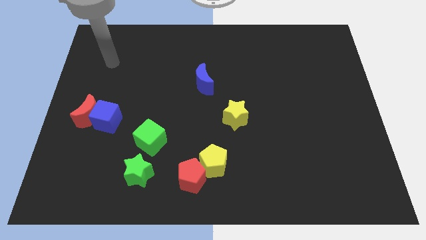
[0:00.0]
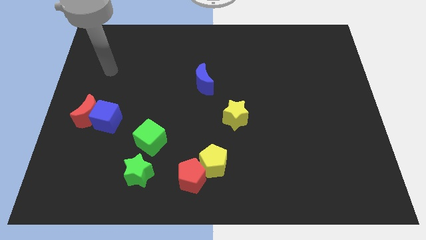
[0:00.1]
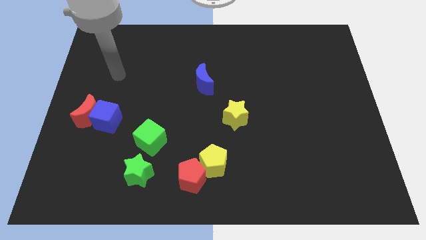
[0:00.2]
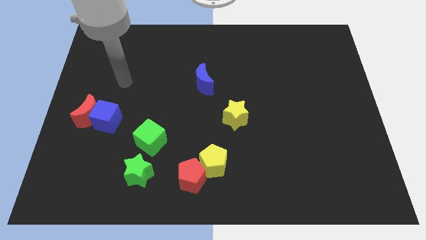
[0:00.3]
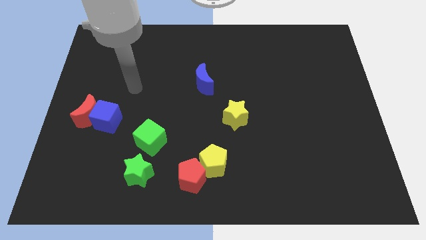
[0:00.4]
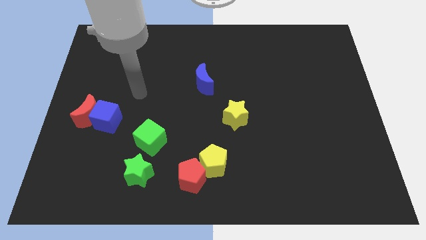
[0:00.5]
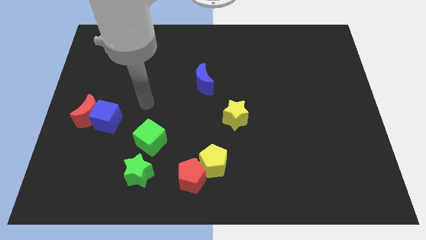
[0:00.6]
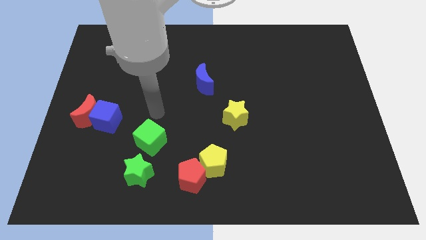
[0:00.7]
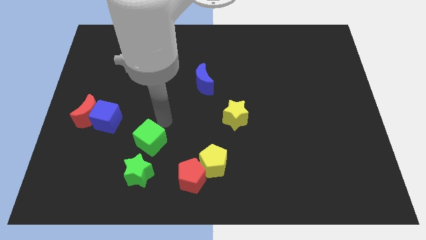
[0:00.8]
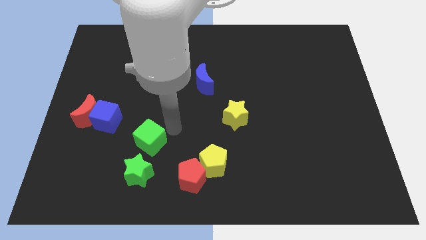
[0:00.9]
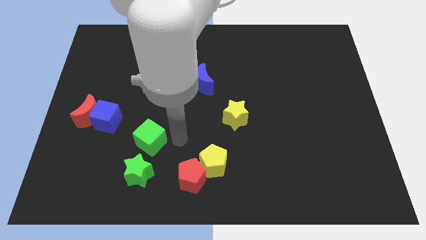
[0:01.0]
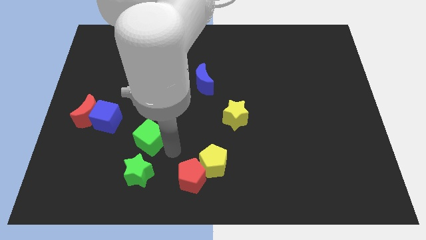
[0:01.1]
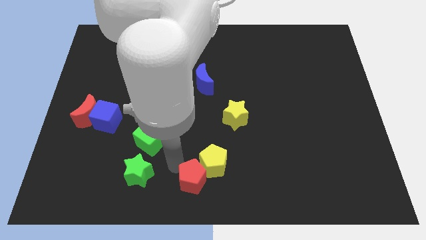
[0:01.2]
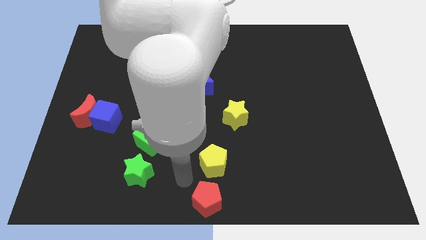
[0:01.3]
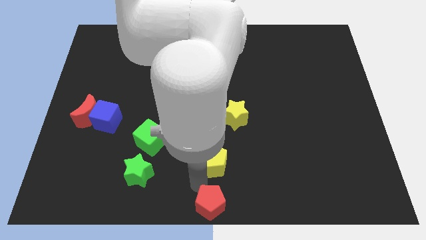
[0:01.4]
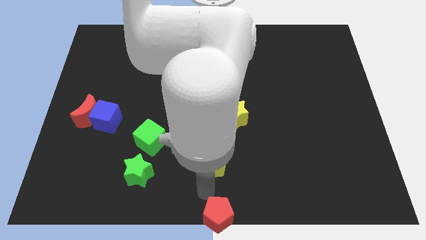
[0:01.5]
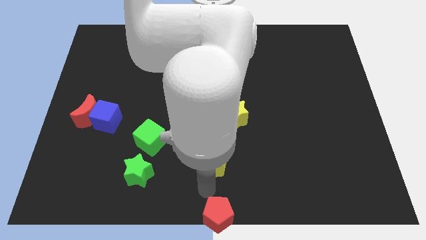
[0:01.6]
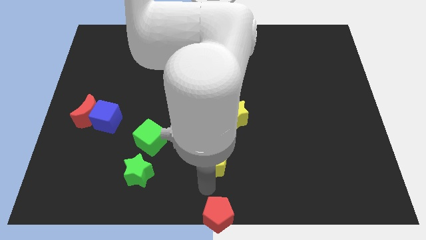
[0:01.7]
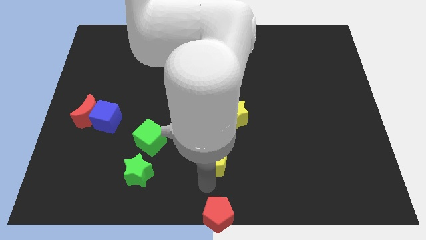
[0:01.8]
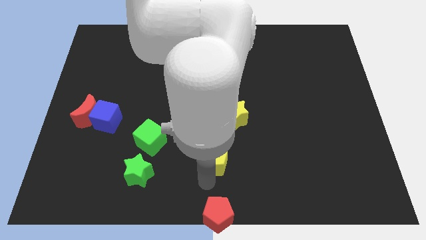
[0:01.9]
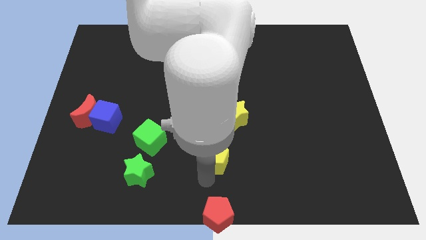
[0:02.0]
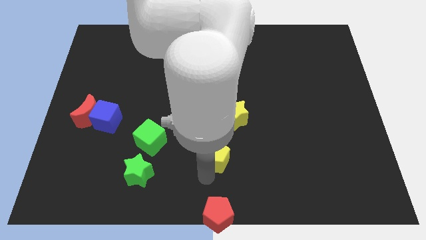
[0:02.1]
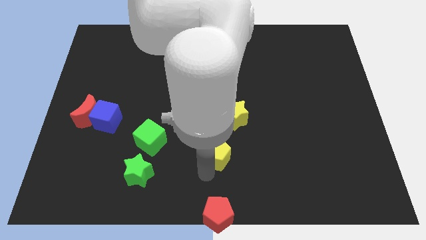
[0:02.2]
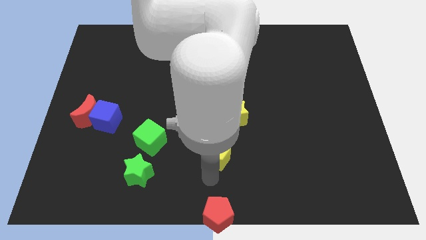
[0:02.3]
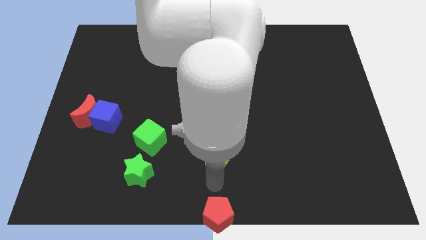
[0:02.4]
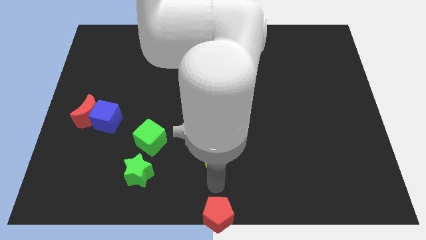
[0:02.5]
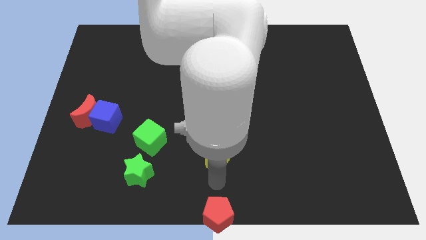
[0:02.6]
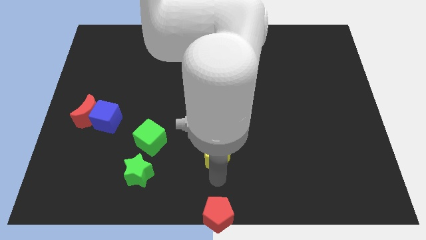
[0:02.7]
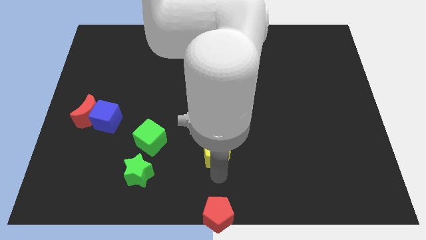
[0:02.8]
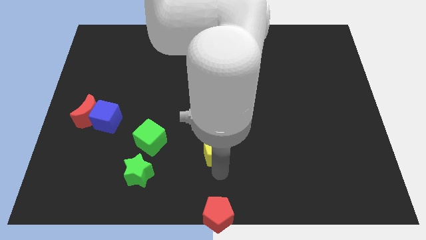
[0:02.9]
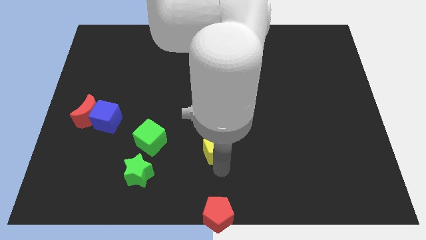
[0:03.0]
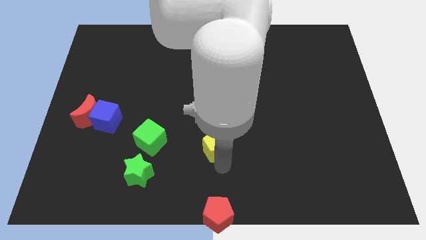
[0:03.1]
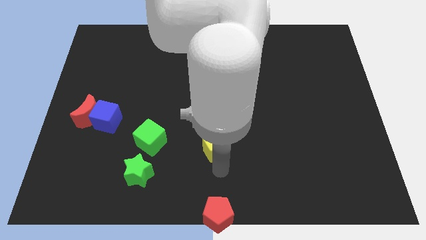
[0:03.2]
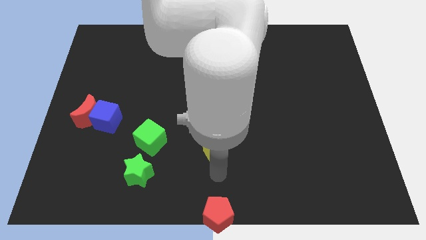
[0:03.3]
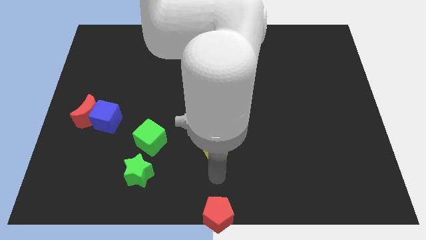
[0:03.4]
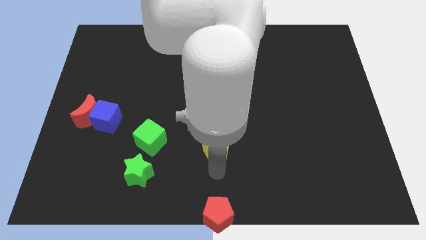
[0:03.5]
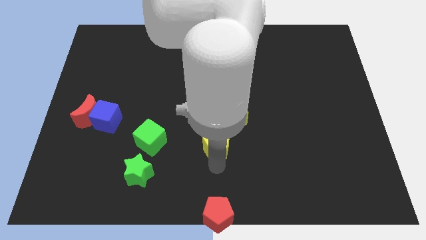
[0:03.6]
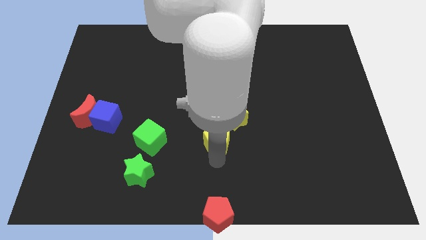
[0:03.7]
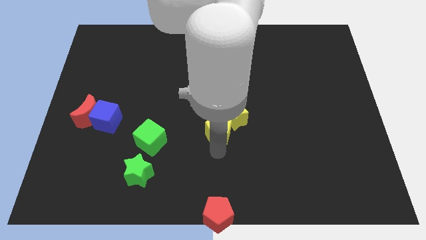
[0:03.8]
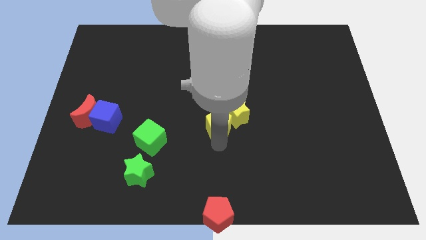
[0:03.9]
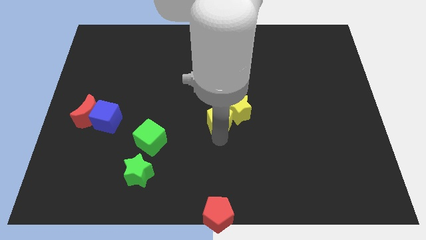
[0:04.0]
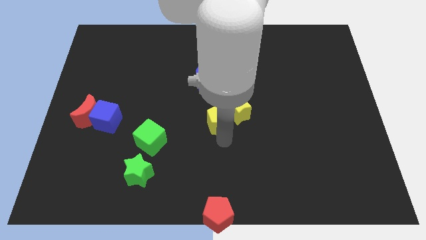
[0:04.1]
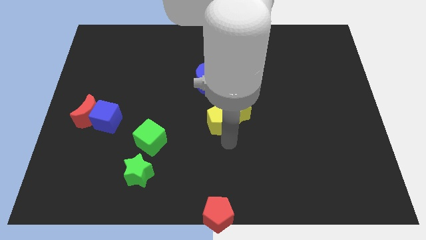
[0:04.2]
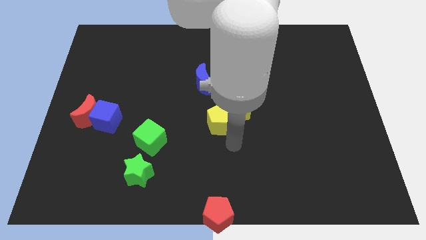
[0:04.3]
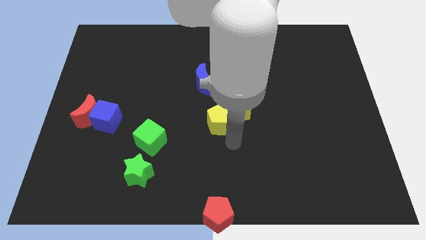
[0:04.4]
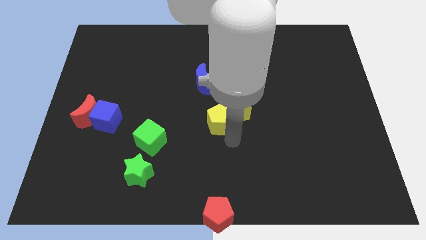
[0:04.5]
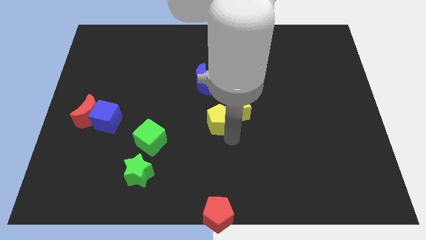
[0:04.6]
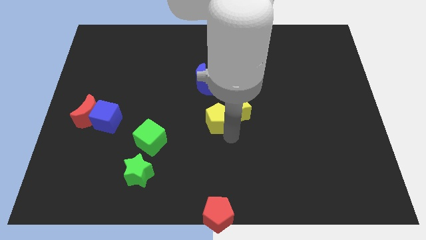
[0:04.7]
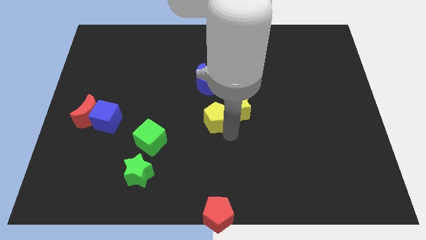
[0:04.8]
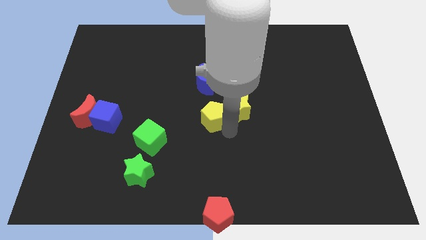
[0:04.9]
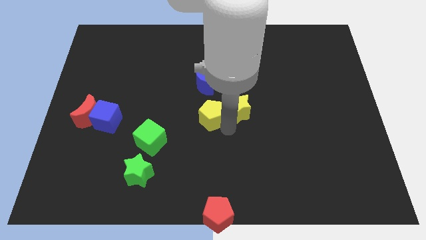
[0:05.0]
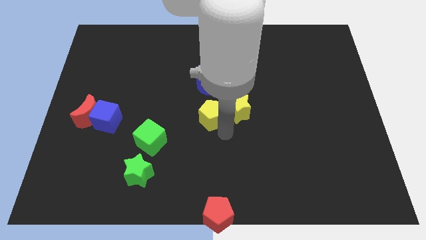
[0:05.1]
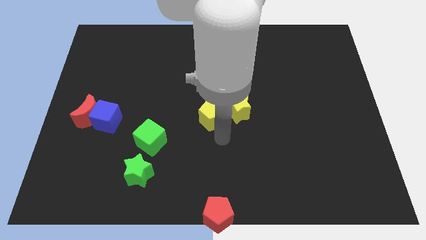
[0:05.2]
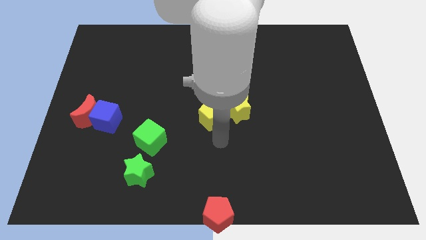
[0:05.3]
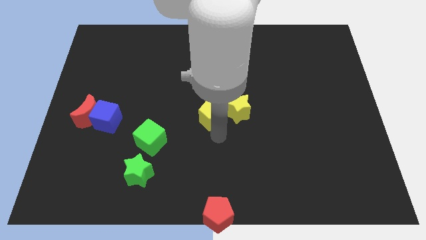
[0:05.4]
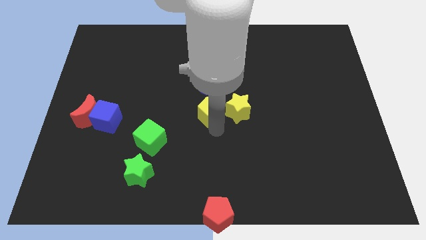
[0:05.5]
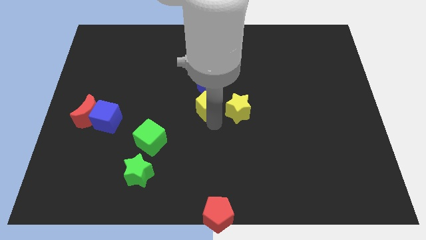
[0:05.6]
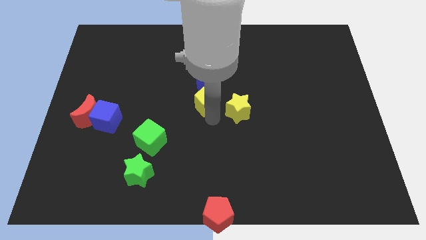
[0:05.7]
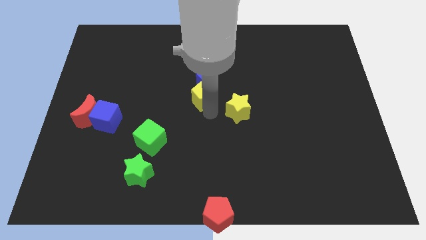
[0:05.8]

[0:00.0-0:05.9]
move the yellow pentagon close to the blue moon

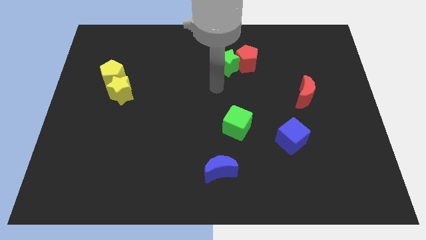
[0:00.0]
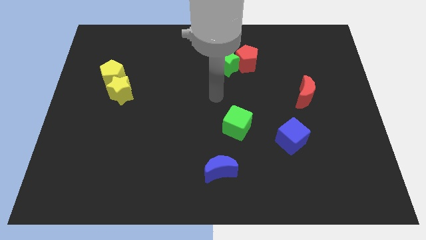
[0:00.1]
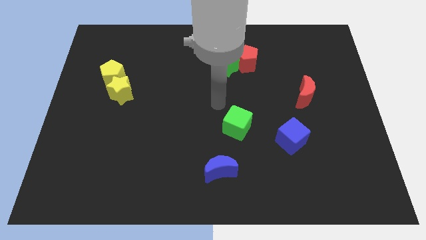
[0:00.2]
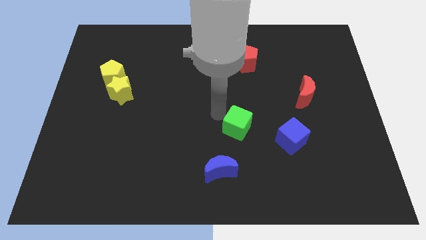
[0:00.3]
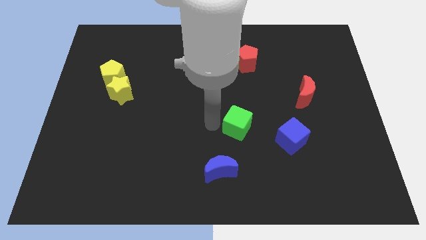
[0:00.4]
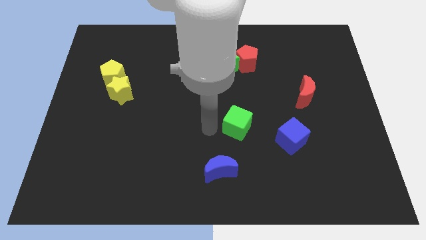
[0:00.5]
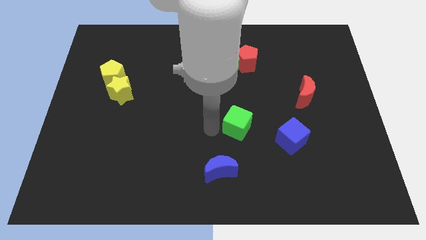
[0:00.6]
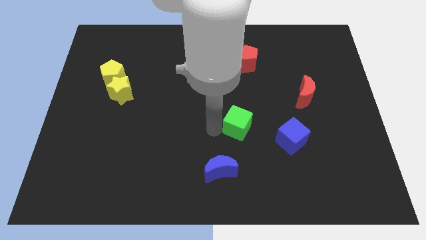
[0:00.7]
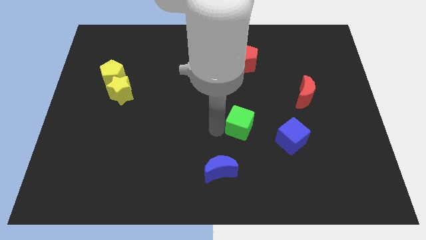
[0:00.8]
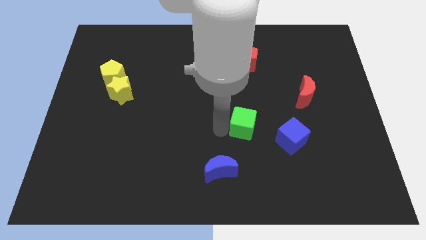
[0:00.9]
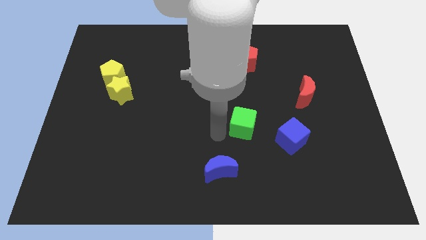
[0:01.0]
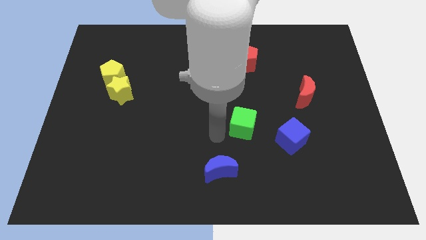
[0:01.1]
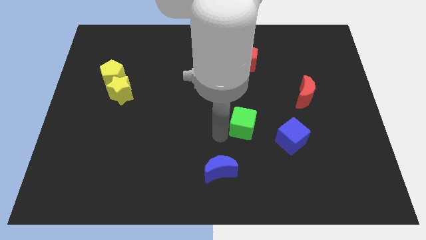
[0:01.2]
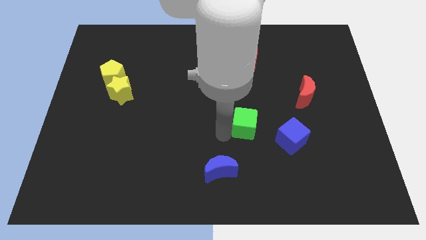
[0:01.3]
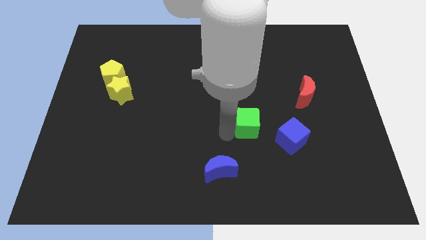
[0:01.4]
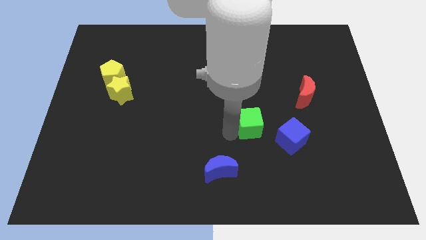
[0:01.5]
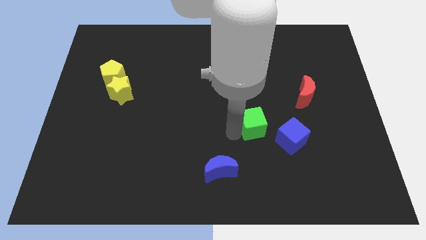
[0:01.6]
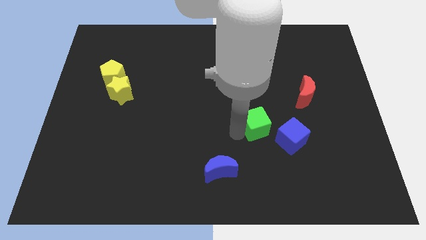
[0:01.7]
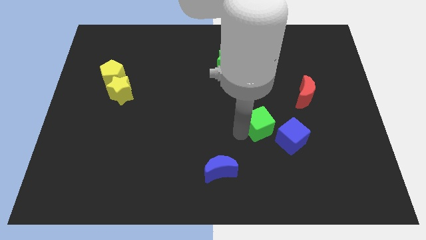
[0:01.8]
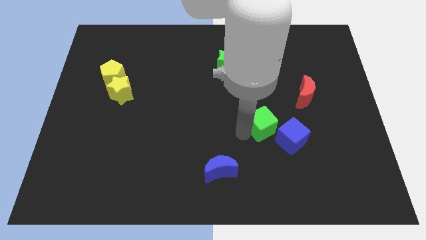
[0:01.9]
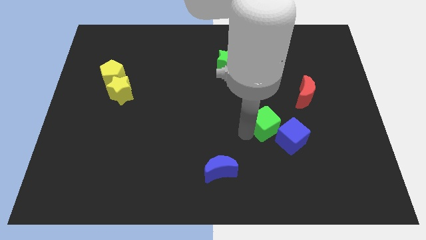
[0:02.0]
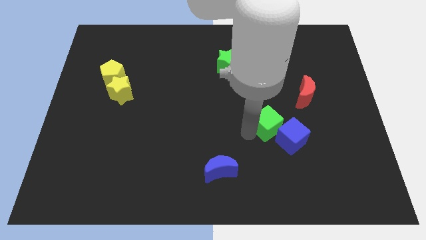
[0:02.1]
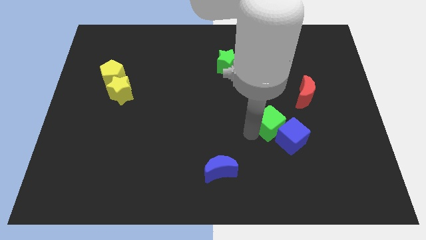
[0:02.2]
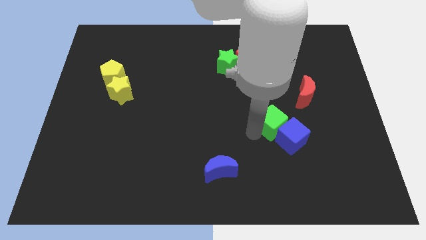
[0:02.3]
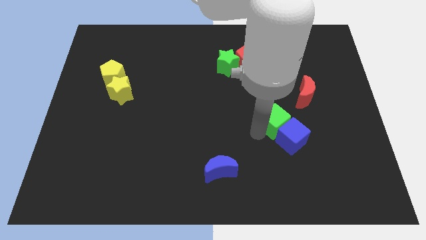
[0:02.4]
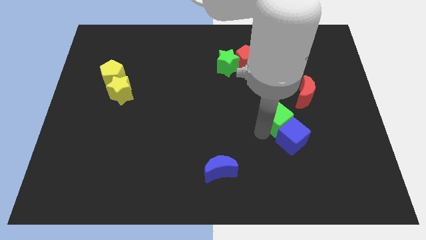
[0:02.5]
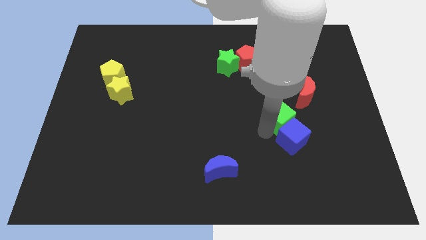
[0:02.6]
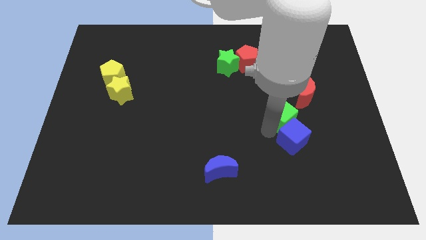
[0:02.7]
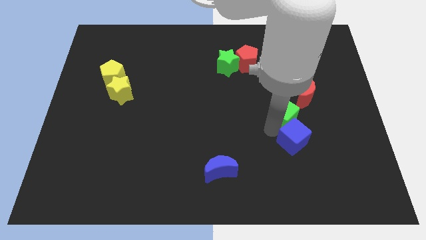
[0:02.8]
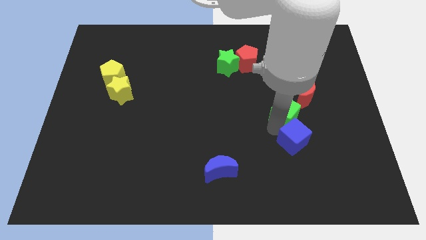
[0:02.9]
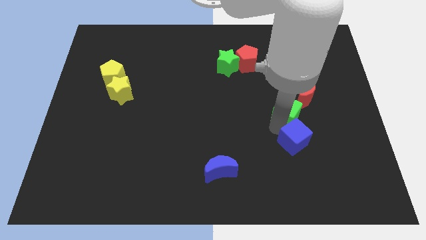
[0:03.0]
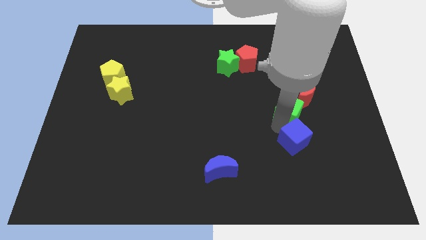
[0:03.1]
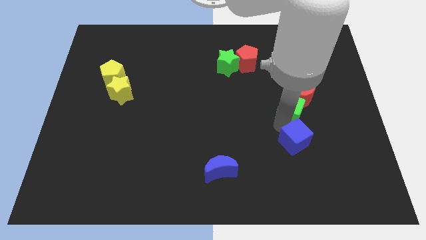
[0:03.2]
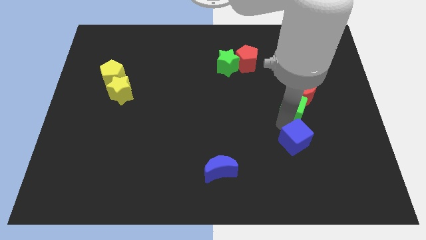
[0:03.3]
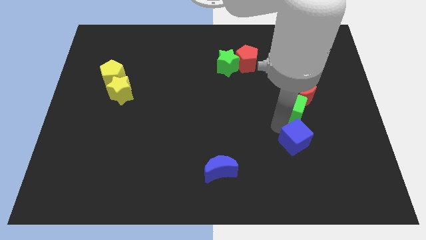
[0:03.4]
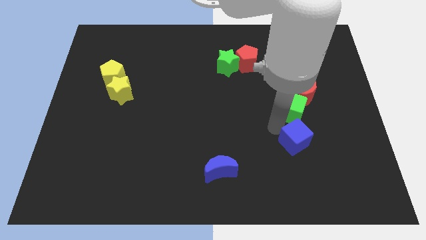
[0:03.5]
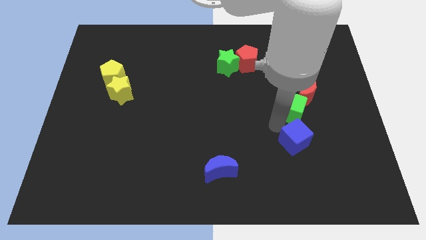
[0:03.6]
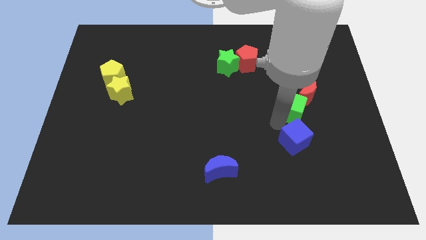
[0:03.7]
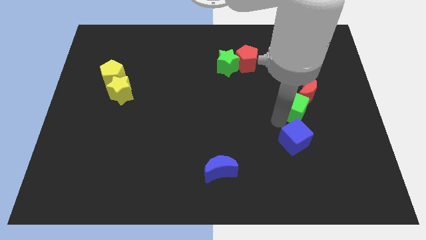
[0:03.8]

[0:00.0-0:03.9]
push the green cube close to the red moon
